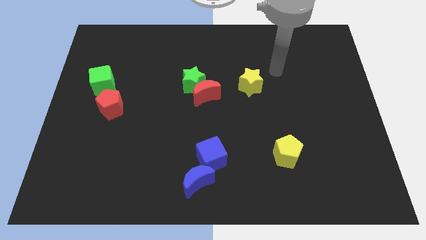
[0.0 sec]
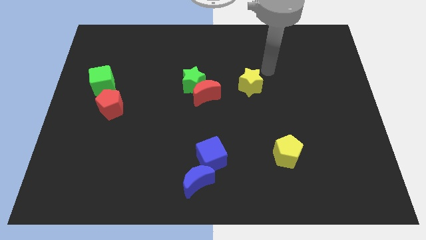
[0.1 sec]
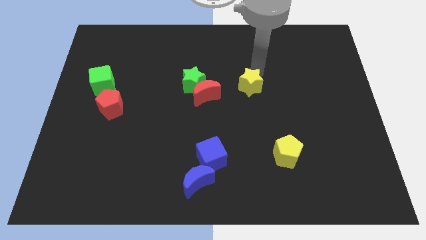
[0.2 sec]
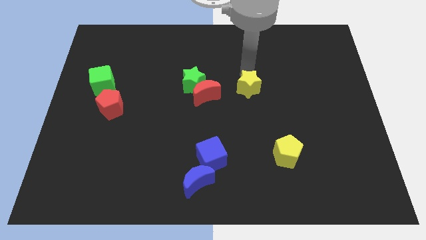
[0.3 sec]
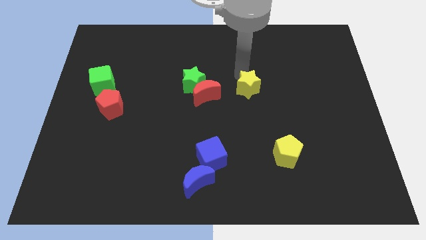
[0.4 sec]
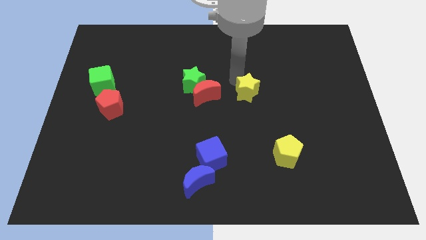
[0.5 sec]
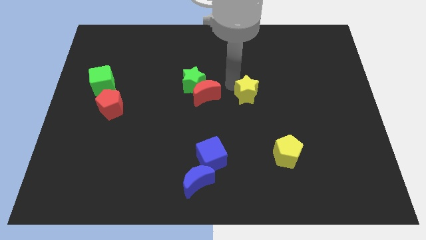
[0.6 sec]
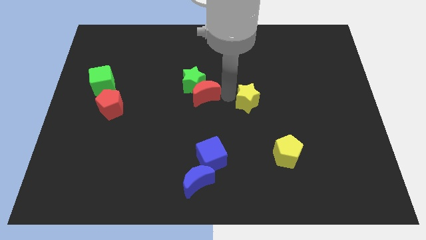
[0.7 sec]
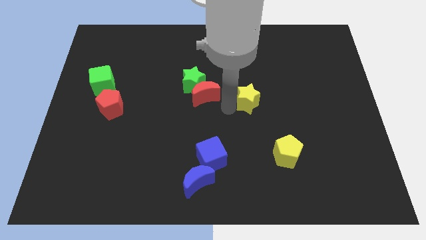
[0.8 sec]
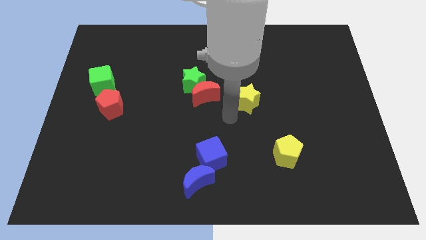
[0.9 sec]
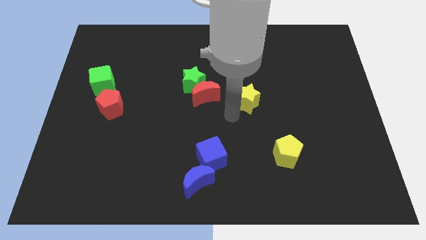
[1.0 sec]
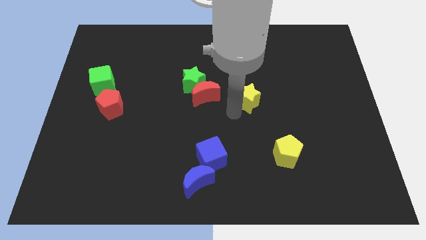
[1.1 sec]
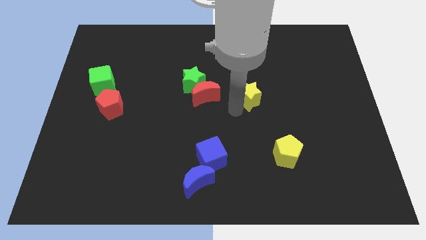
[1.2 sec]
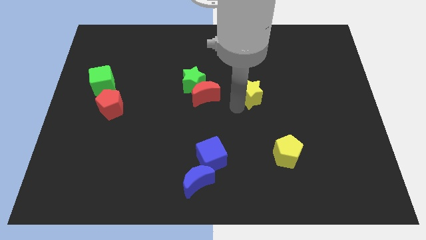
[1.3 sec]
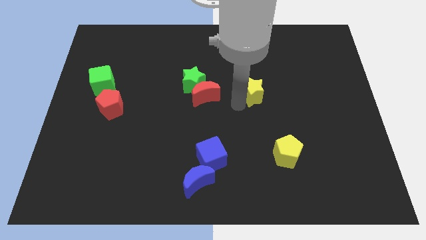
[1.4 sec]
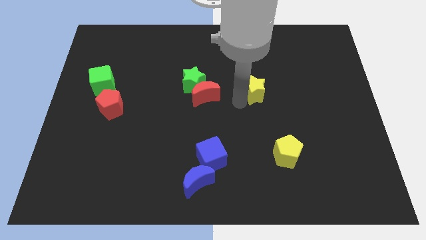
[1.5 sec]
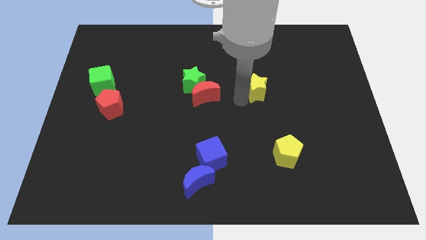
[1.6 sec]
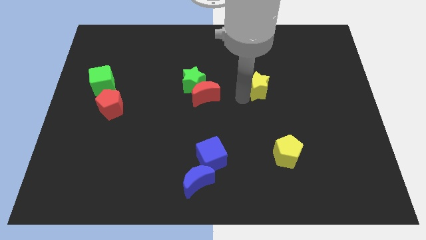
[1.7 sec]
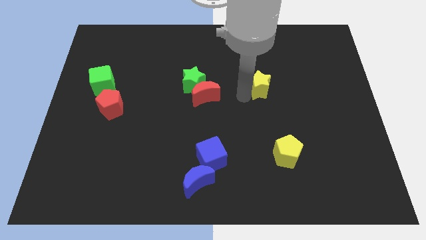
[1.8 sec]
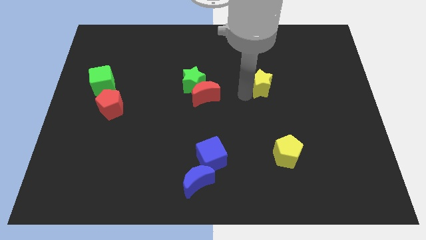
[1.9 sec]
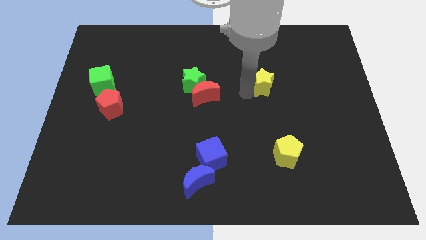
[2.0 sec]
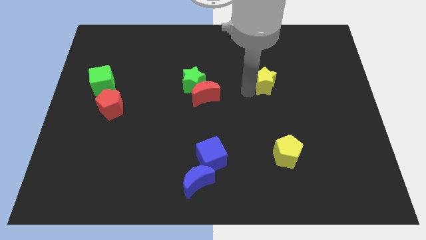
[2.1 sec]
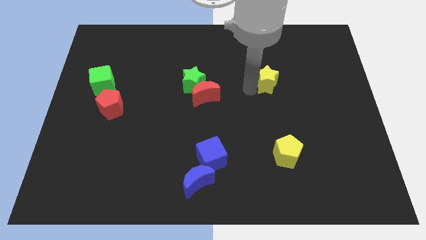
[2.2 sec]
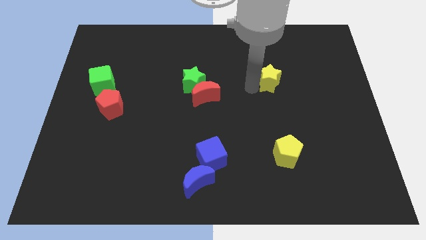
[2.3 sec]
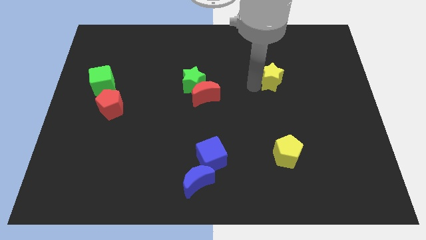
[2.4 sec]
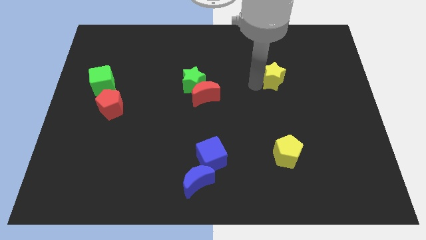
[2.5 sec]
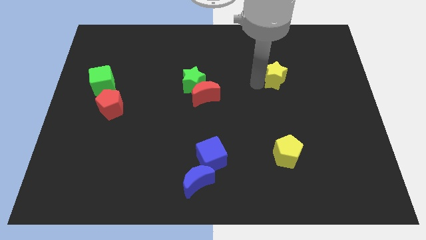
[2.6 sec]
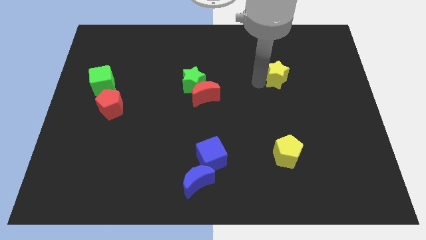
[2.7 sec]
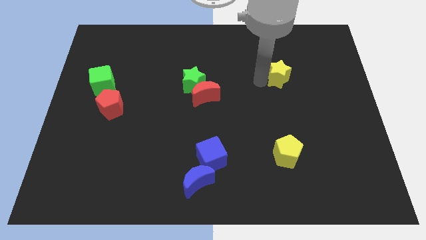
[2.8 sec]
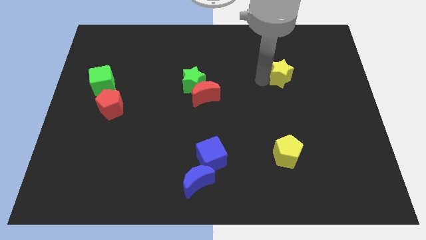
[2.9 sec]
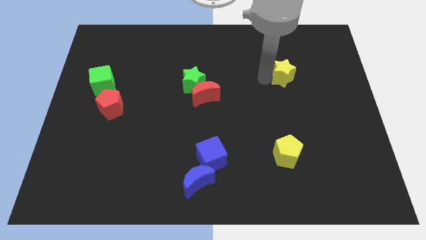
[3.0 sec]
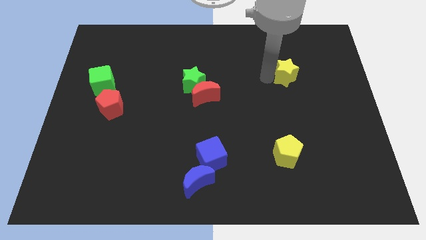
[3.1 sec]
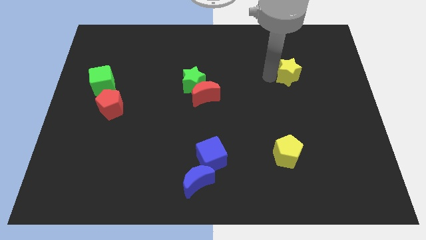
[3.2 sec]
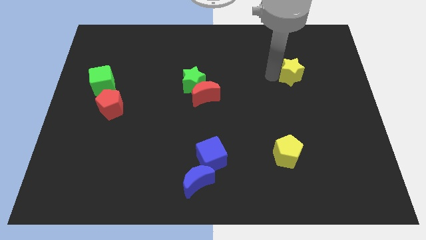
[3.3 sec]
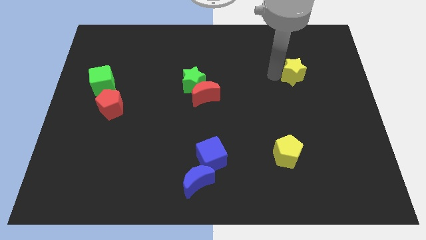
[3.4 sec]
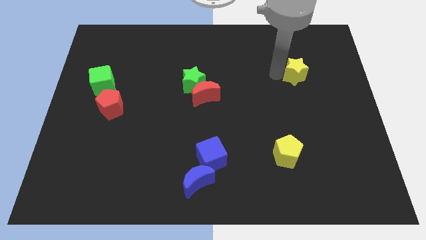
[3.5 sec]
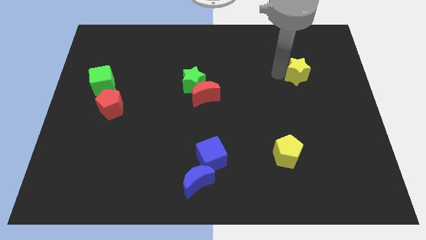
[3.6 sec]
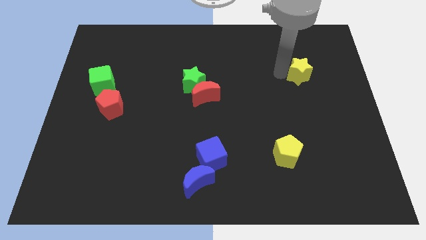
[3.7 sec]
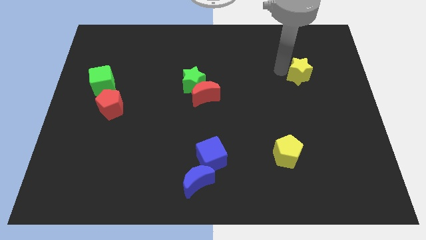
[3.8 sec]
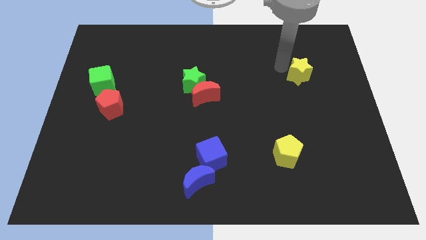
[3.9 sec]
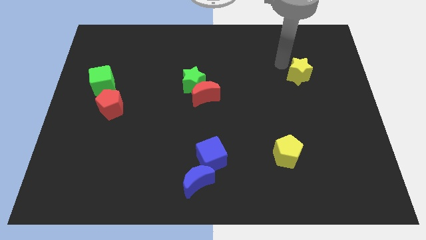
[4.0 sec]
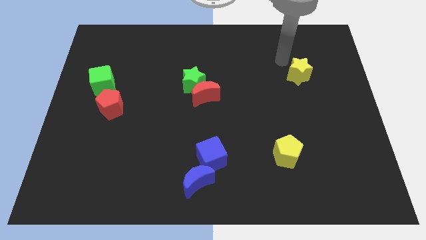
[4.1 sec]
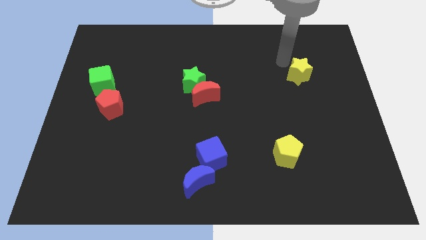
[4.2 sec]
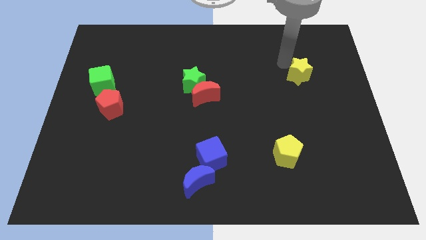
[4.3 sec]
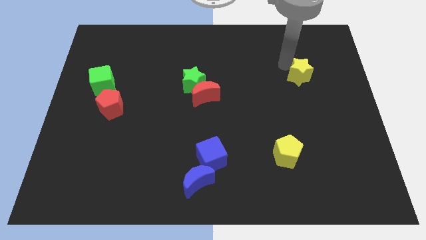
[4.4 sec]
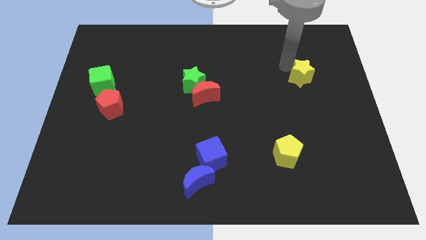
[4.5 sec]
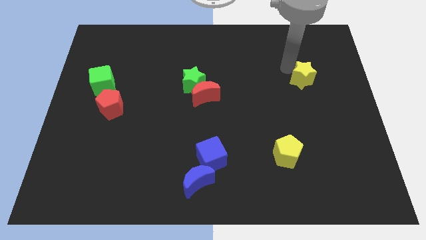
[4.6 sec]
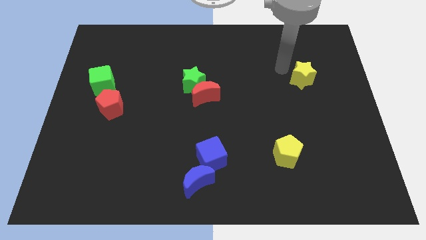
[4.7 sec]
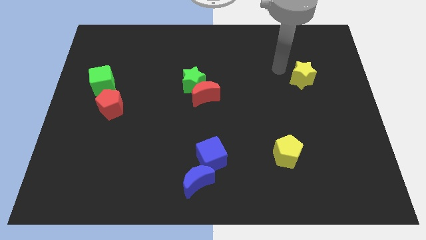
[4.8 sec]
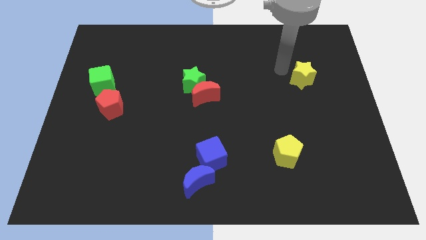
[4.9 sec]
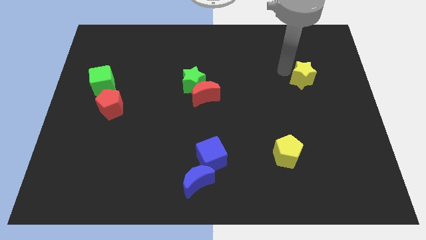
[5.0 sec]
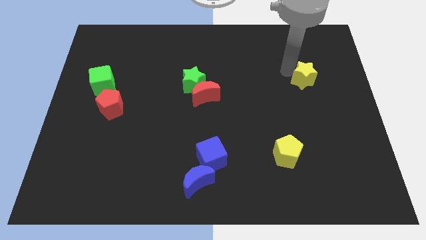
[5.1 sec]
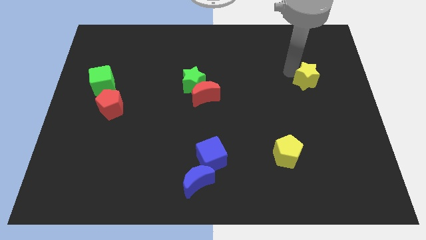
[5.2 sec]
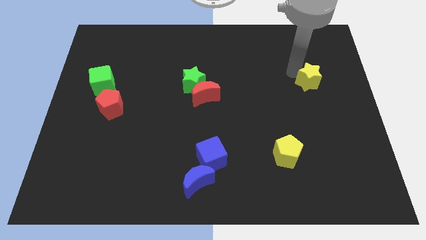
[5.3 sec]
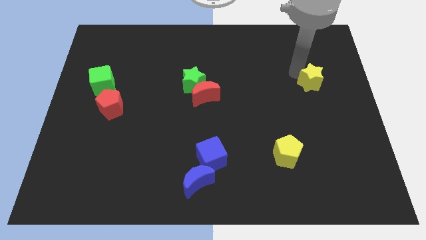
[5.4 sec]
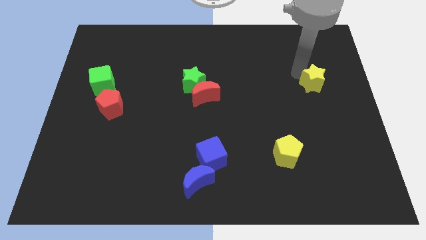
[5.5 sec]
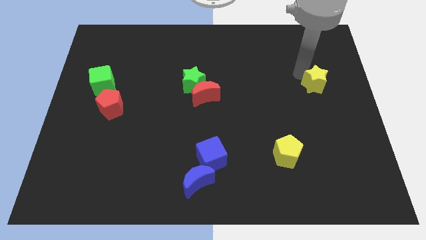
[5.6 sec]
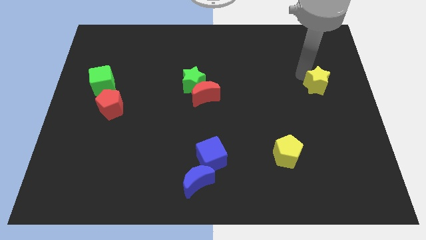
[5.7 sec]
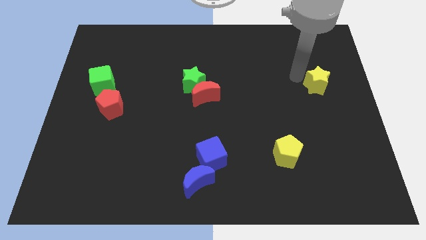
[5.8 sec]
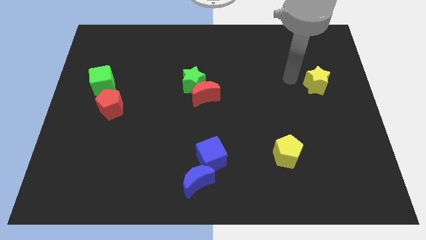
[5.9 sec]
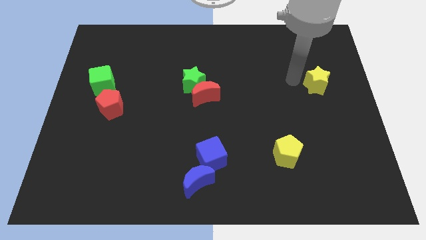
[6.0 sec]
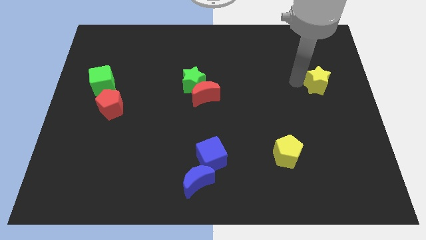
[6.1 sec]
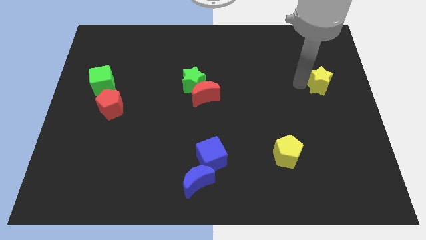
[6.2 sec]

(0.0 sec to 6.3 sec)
slide the yellow star to the right side

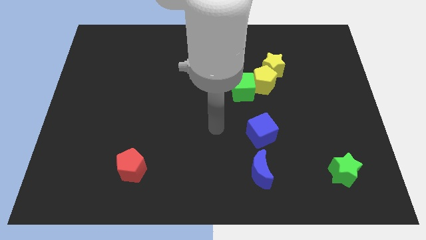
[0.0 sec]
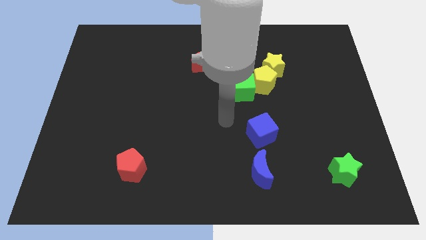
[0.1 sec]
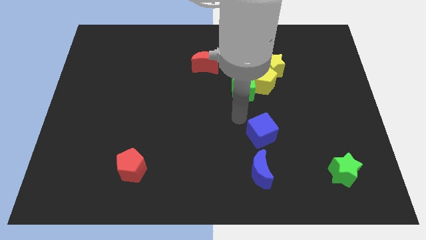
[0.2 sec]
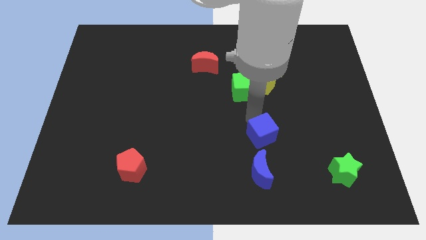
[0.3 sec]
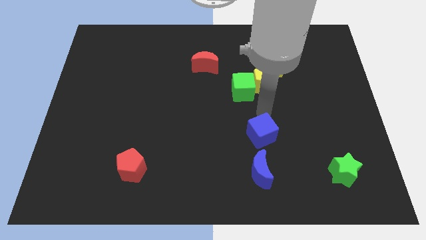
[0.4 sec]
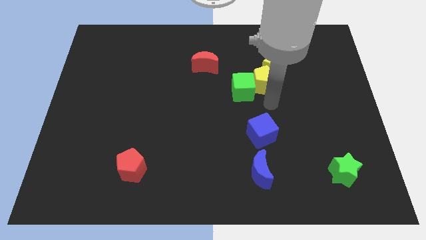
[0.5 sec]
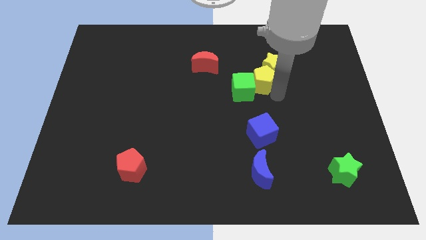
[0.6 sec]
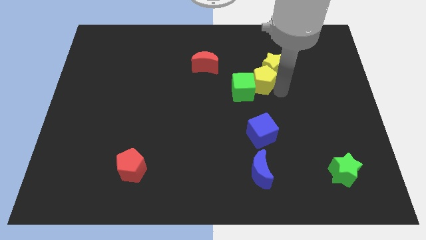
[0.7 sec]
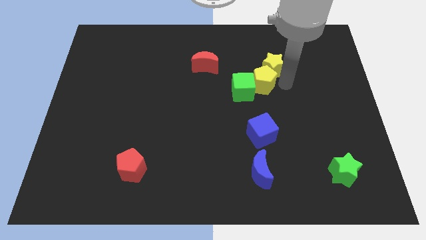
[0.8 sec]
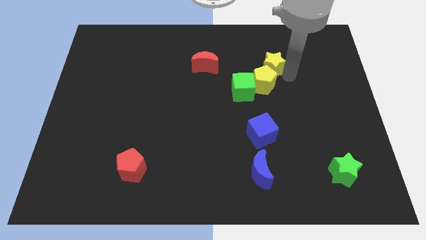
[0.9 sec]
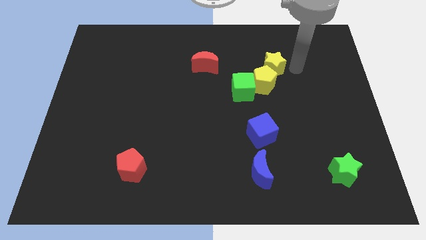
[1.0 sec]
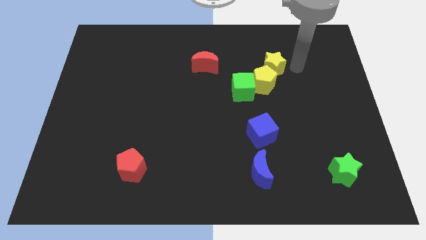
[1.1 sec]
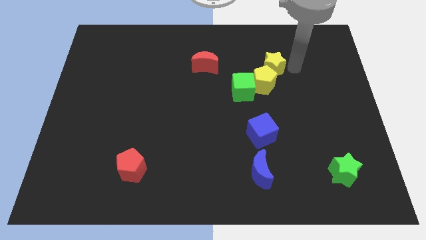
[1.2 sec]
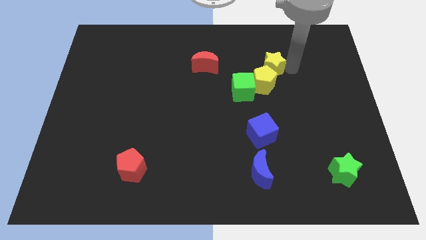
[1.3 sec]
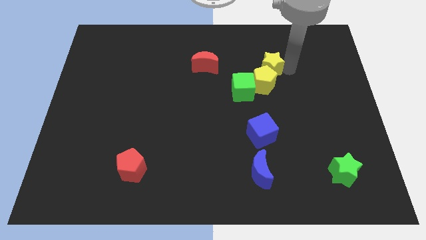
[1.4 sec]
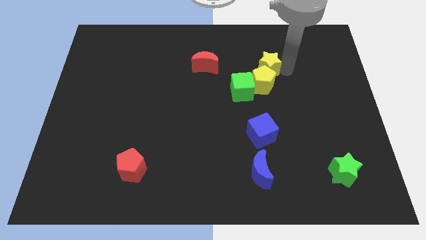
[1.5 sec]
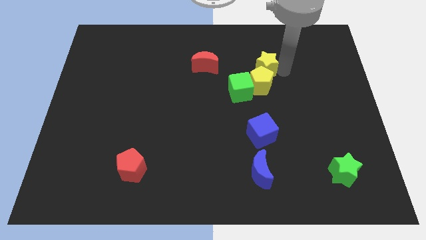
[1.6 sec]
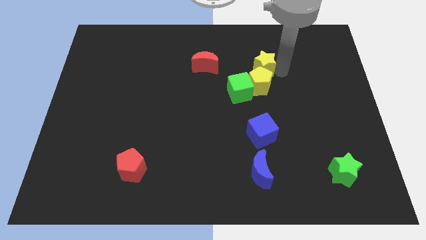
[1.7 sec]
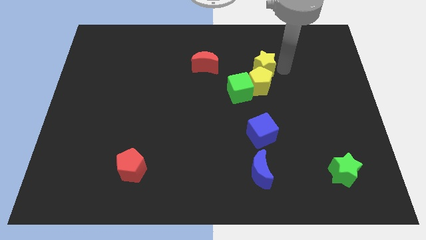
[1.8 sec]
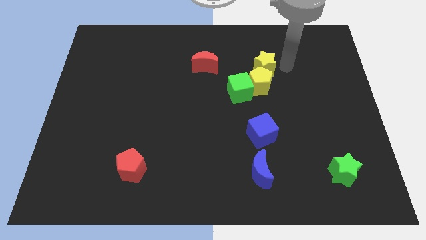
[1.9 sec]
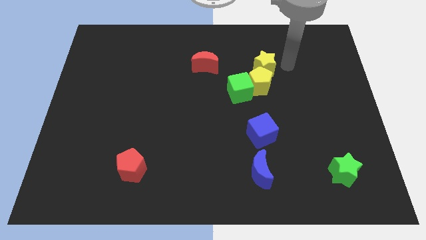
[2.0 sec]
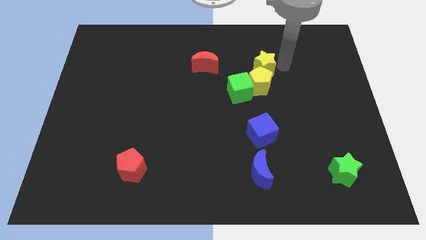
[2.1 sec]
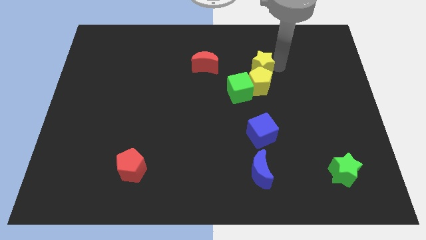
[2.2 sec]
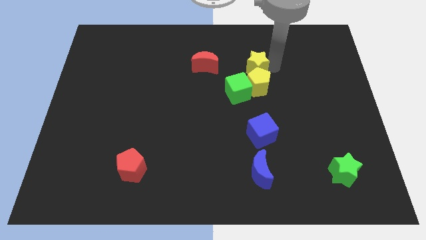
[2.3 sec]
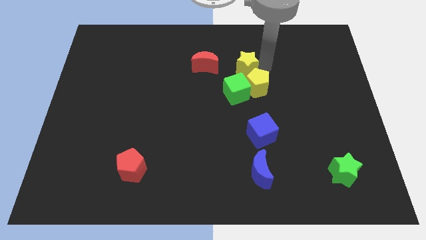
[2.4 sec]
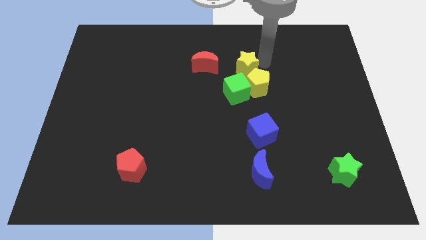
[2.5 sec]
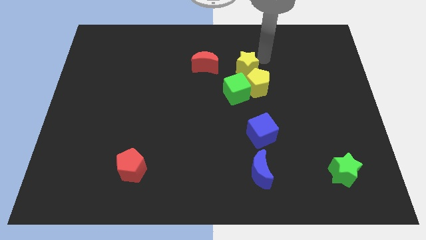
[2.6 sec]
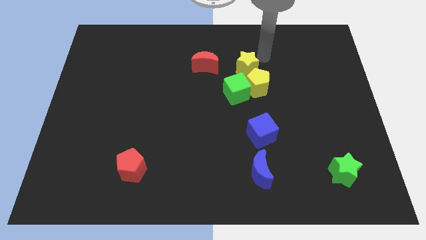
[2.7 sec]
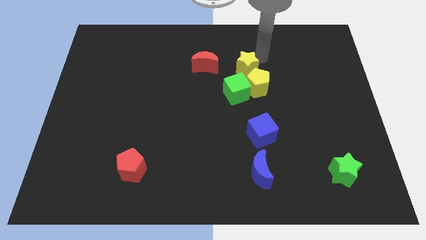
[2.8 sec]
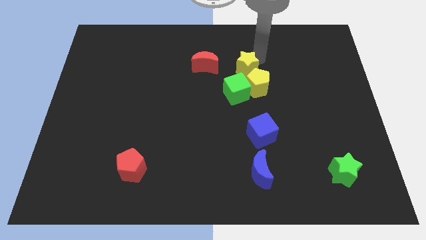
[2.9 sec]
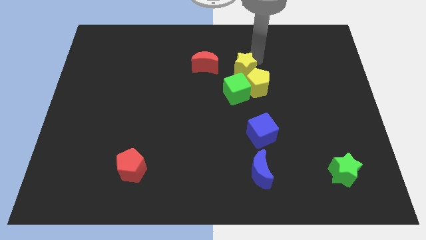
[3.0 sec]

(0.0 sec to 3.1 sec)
move the yellow star to the middle of the board
